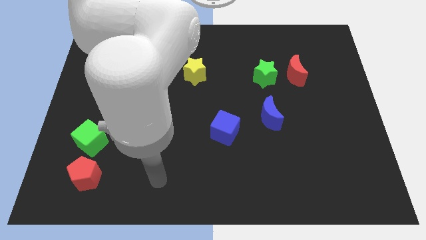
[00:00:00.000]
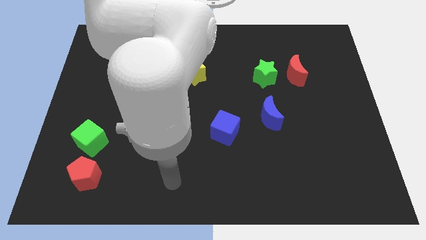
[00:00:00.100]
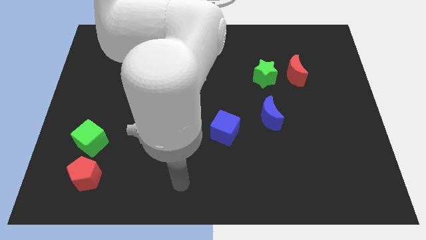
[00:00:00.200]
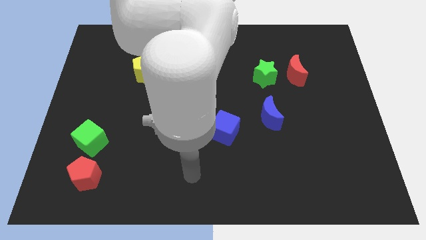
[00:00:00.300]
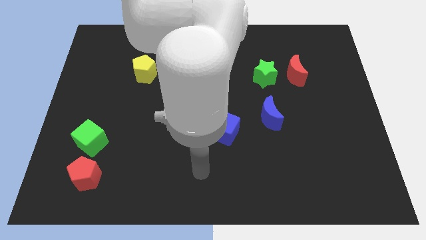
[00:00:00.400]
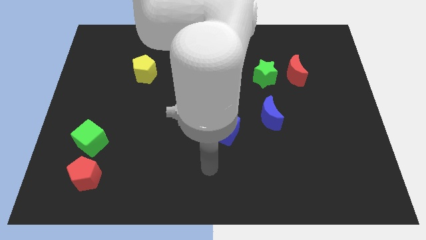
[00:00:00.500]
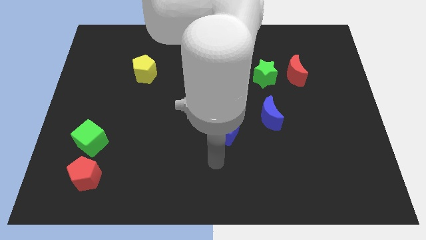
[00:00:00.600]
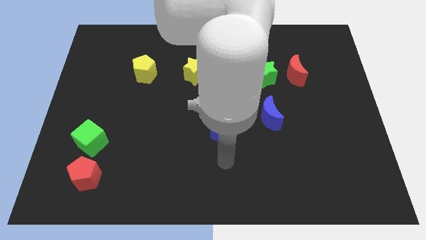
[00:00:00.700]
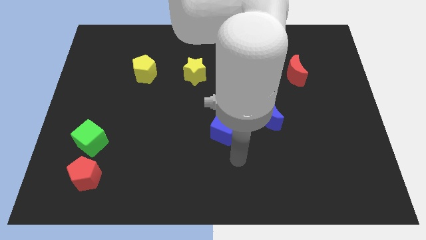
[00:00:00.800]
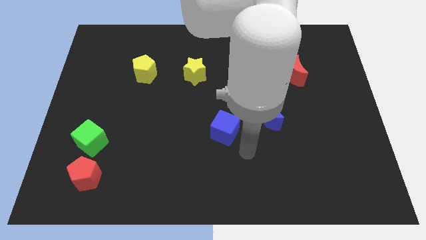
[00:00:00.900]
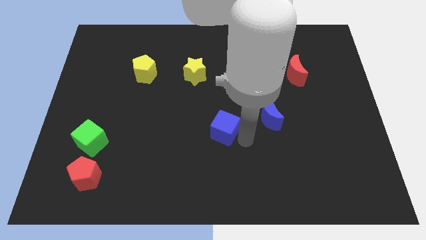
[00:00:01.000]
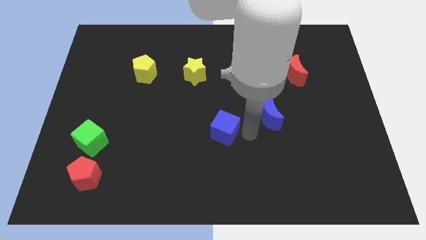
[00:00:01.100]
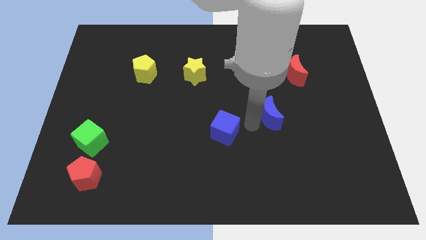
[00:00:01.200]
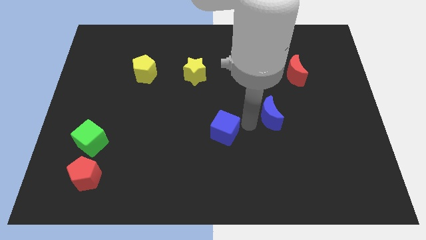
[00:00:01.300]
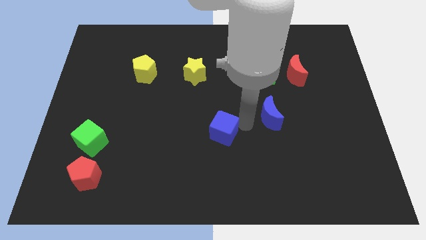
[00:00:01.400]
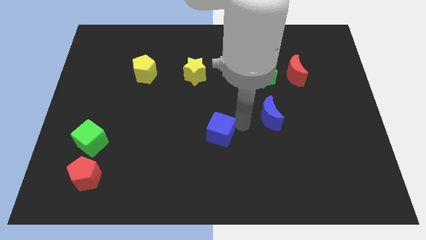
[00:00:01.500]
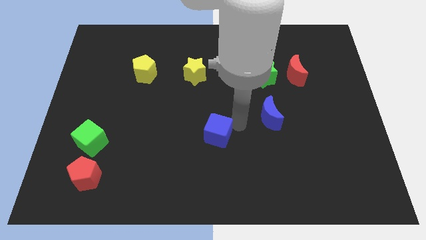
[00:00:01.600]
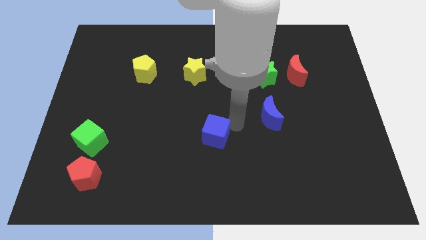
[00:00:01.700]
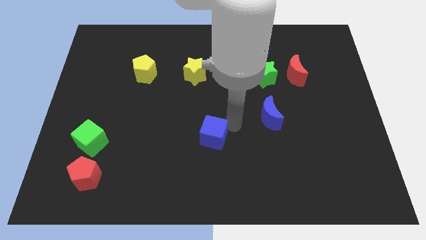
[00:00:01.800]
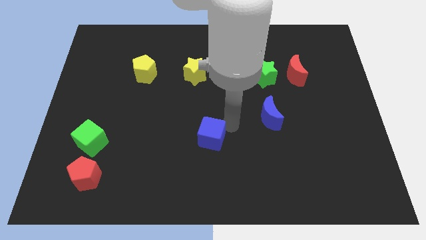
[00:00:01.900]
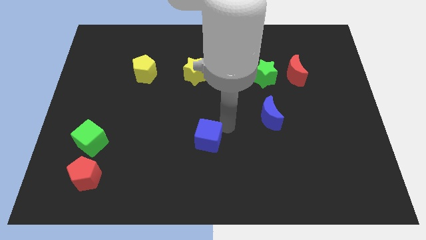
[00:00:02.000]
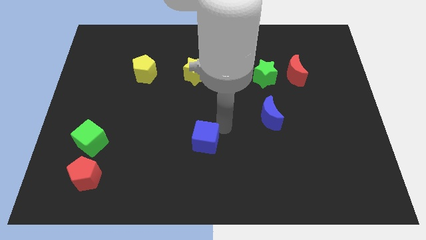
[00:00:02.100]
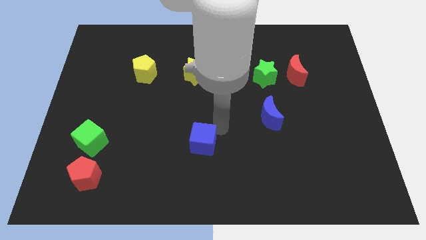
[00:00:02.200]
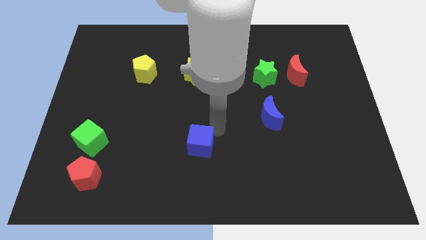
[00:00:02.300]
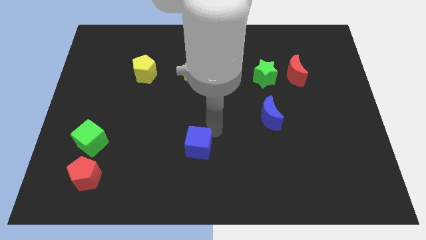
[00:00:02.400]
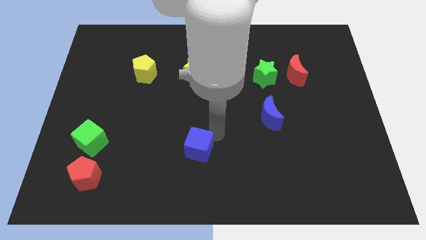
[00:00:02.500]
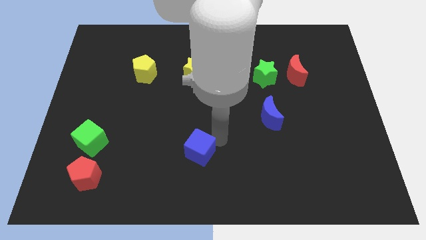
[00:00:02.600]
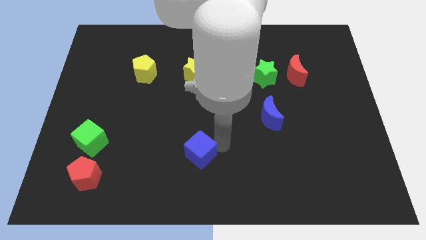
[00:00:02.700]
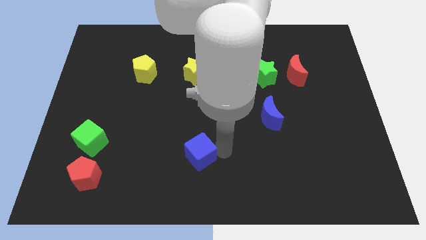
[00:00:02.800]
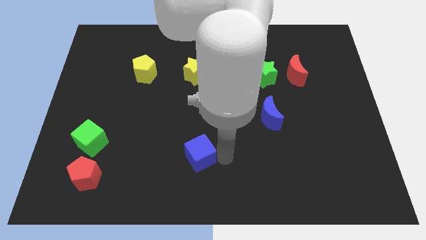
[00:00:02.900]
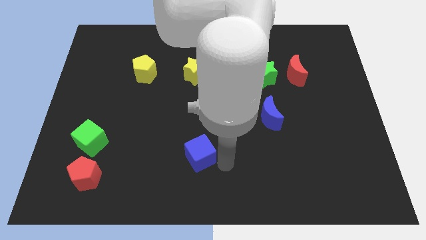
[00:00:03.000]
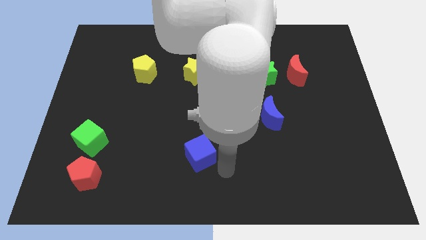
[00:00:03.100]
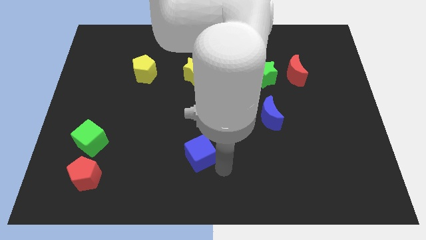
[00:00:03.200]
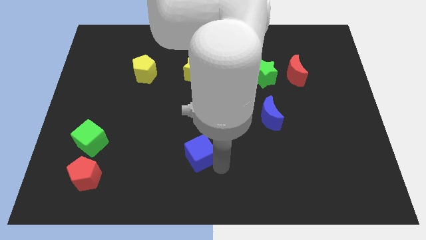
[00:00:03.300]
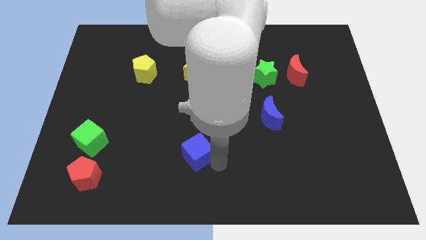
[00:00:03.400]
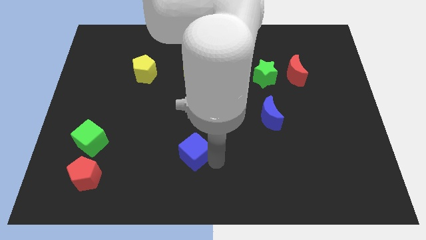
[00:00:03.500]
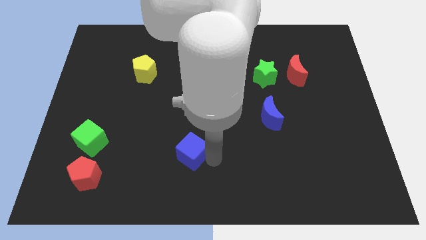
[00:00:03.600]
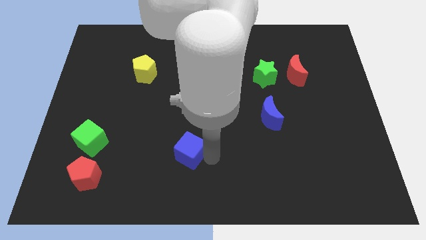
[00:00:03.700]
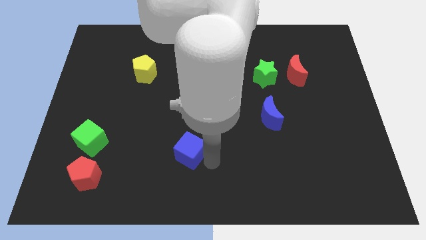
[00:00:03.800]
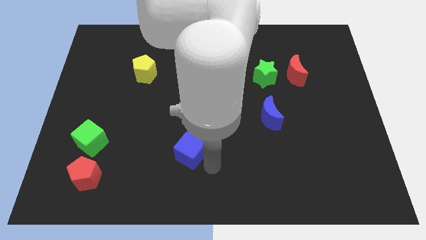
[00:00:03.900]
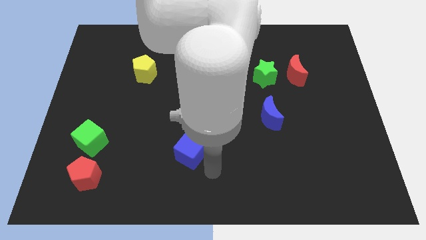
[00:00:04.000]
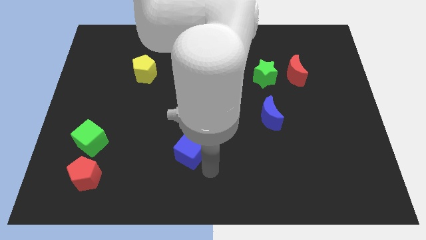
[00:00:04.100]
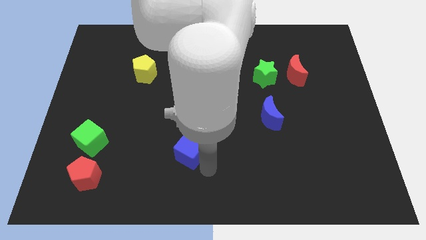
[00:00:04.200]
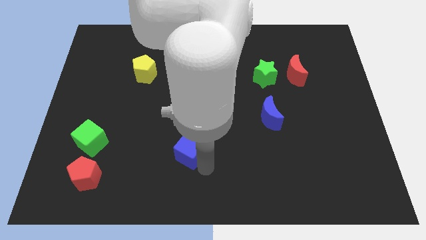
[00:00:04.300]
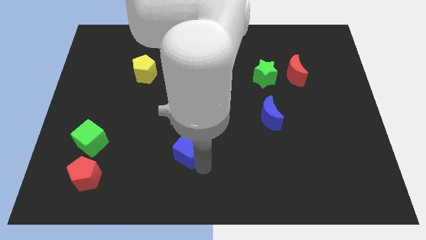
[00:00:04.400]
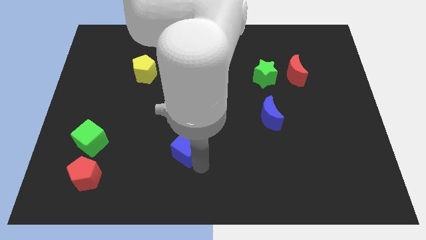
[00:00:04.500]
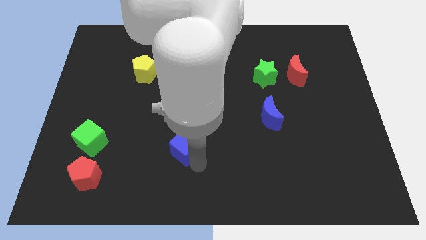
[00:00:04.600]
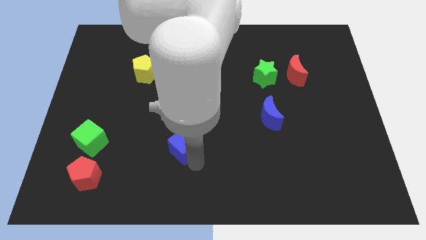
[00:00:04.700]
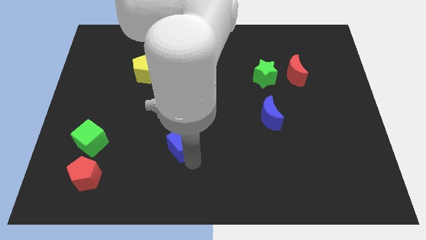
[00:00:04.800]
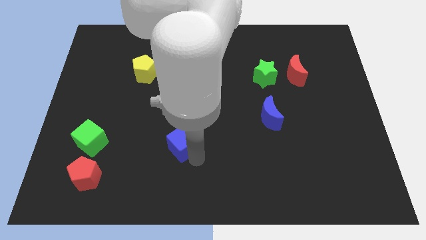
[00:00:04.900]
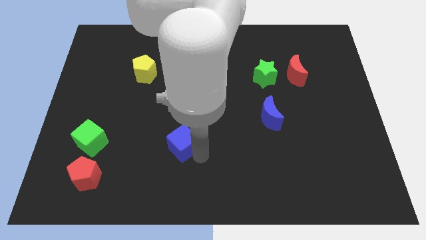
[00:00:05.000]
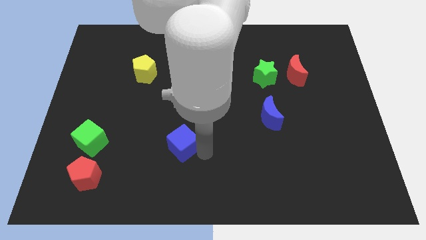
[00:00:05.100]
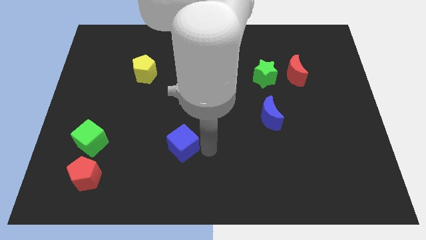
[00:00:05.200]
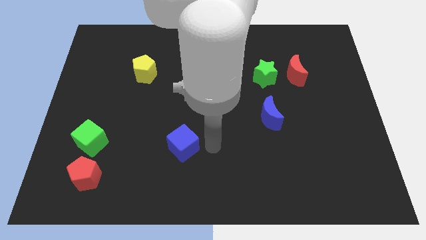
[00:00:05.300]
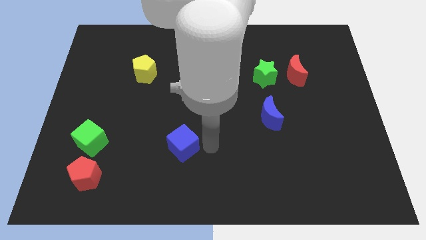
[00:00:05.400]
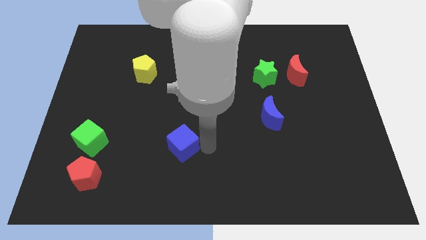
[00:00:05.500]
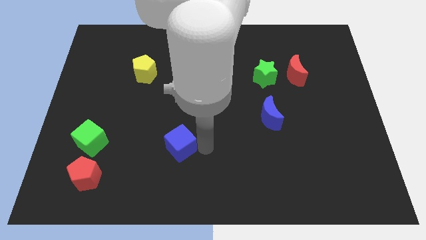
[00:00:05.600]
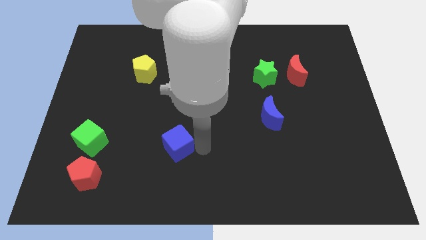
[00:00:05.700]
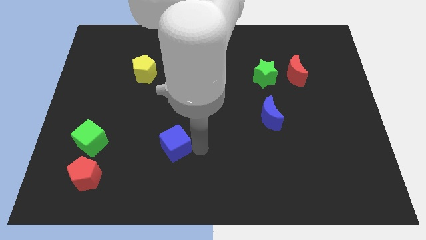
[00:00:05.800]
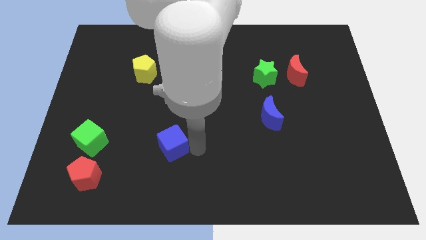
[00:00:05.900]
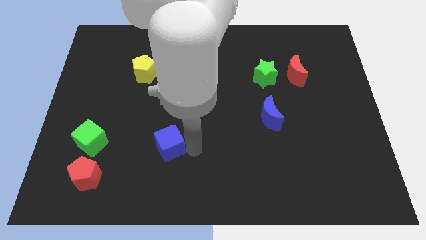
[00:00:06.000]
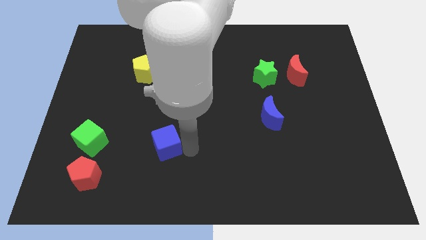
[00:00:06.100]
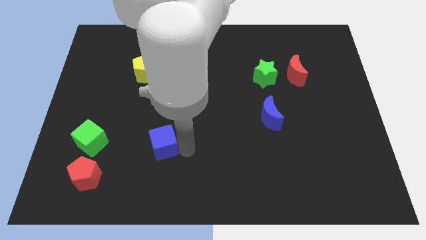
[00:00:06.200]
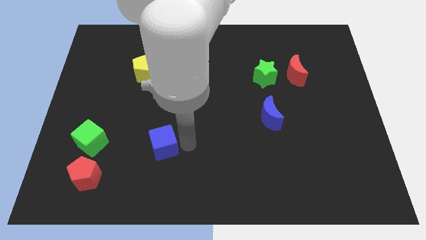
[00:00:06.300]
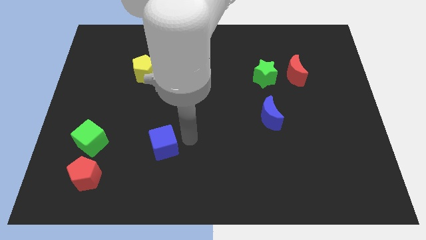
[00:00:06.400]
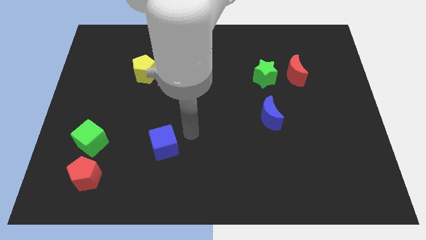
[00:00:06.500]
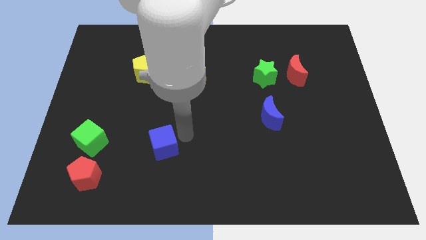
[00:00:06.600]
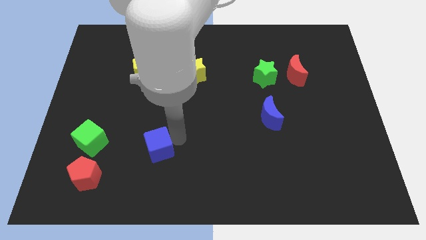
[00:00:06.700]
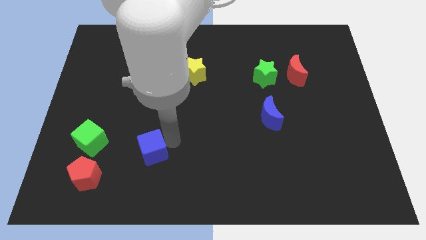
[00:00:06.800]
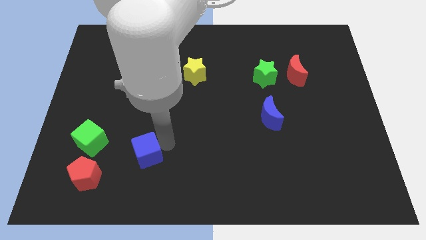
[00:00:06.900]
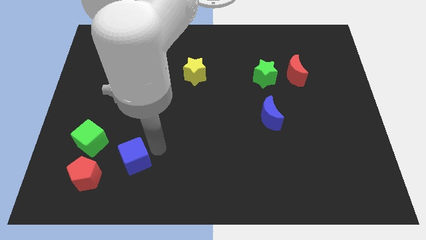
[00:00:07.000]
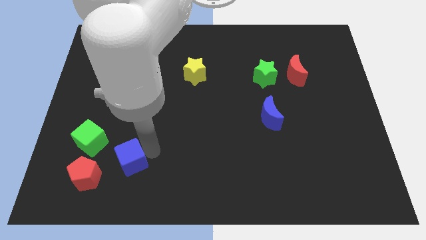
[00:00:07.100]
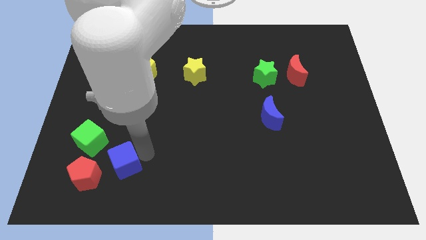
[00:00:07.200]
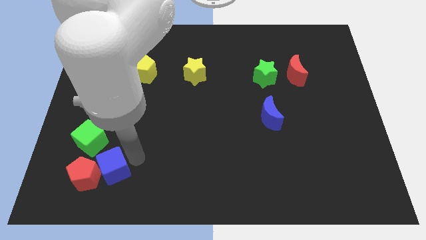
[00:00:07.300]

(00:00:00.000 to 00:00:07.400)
put the blue cube to the red pentagon
